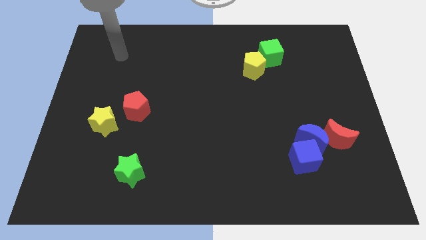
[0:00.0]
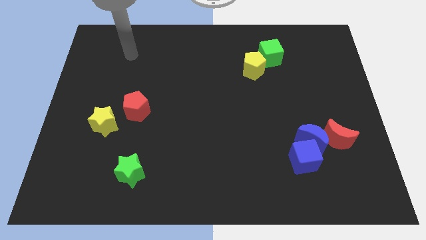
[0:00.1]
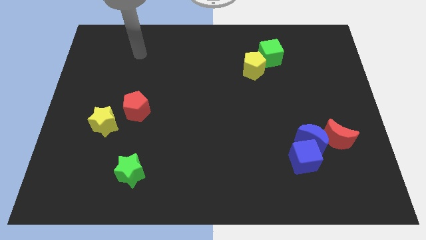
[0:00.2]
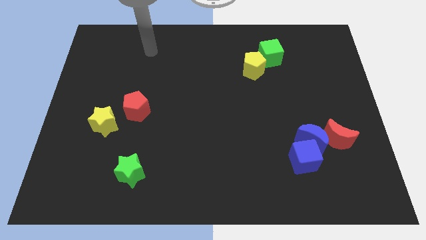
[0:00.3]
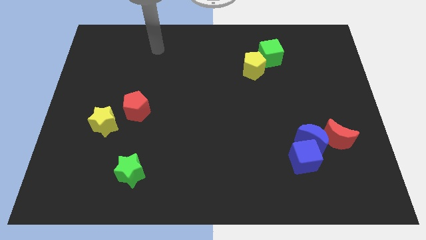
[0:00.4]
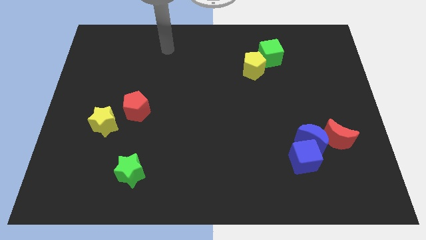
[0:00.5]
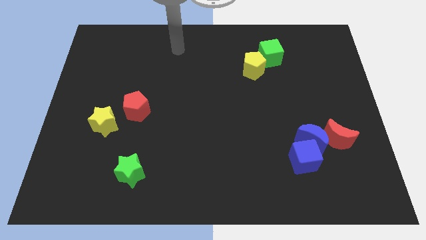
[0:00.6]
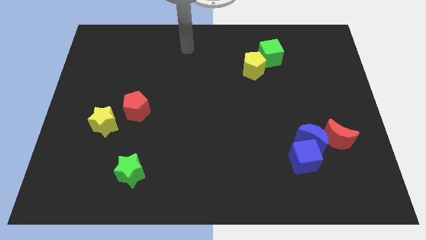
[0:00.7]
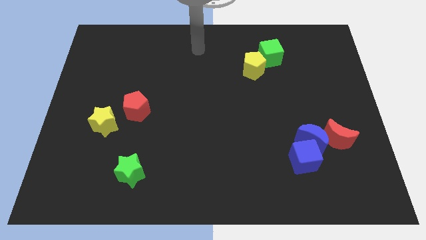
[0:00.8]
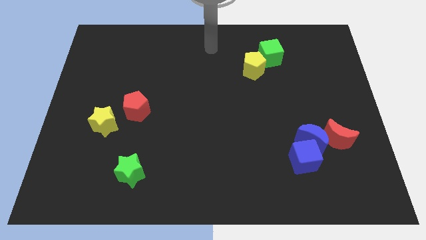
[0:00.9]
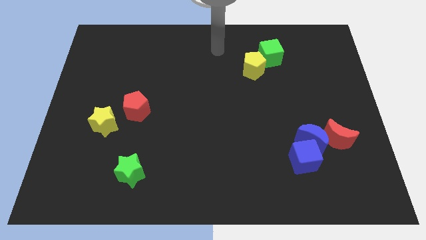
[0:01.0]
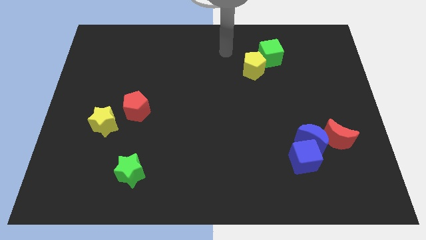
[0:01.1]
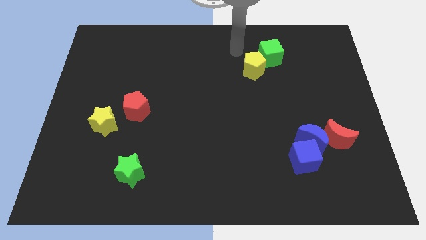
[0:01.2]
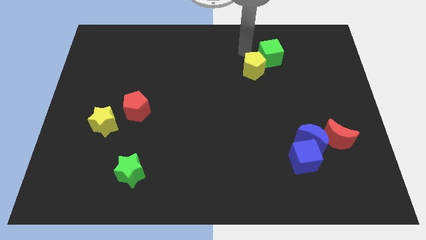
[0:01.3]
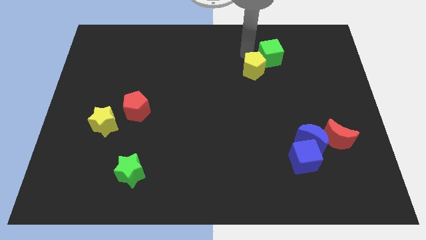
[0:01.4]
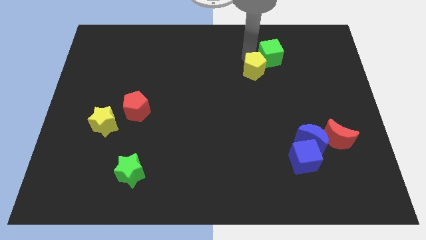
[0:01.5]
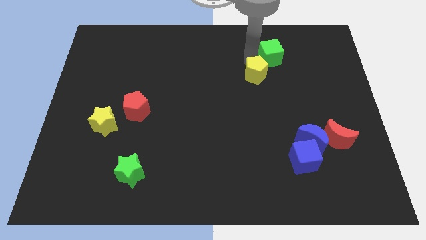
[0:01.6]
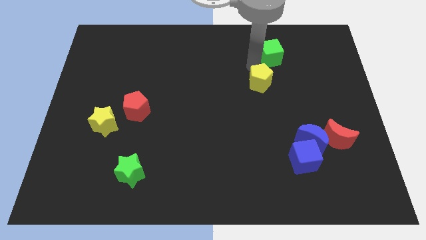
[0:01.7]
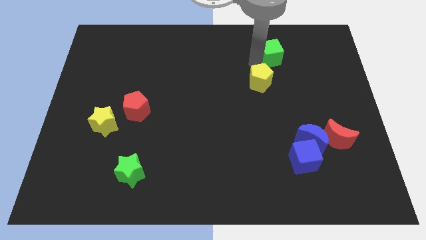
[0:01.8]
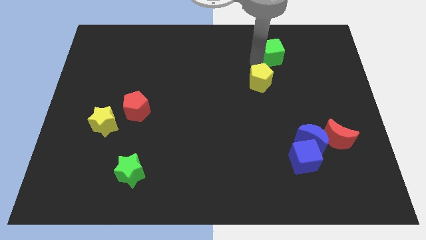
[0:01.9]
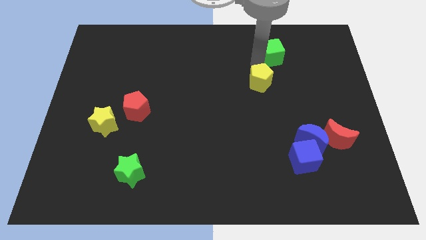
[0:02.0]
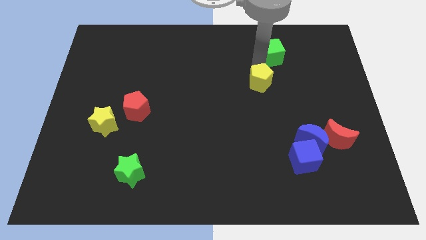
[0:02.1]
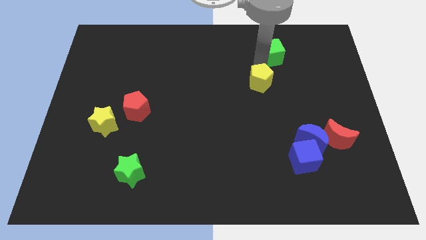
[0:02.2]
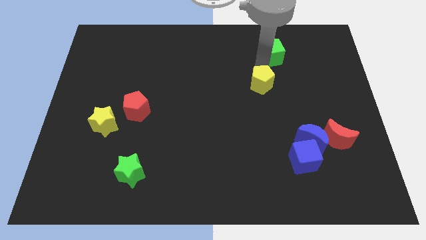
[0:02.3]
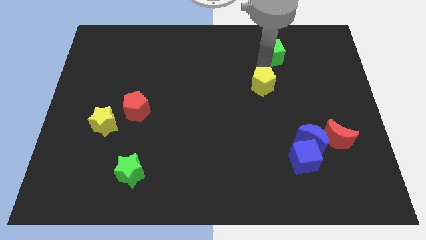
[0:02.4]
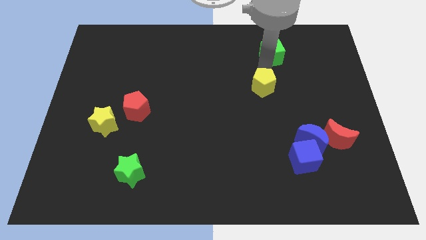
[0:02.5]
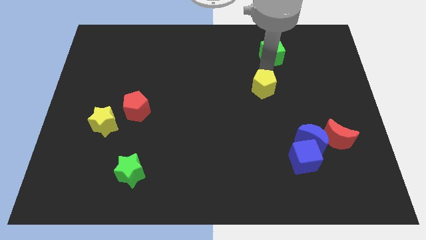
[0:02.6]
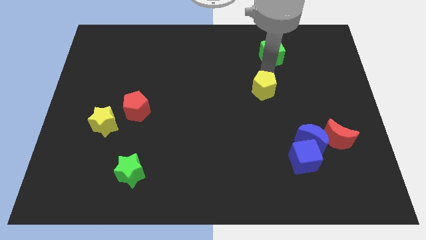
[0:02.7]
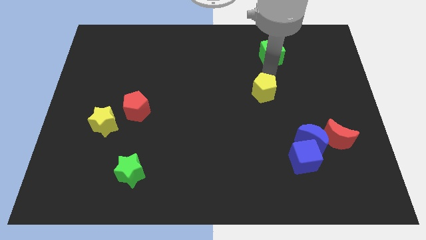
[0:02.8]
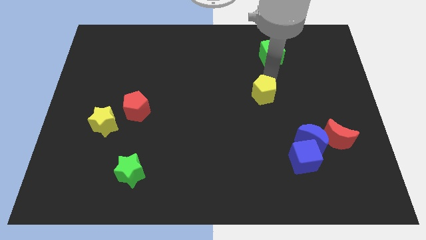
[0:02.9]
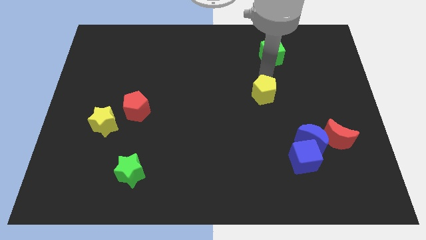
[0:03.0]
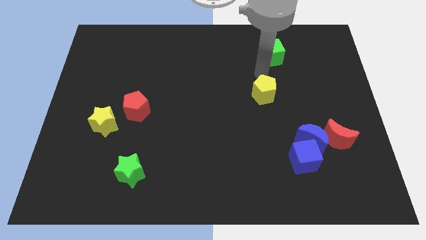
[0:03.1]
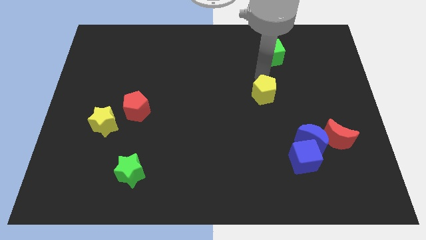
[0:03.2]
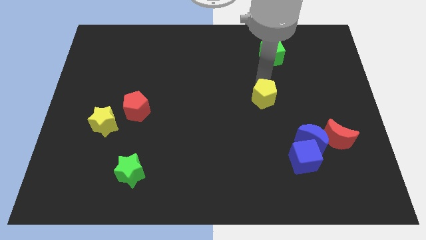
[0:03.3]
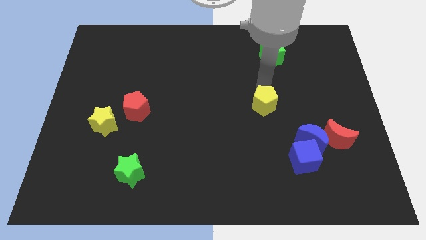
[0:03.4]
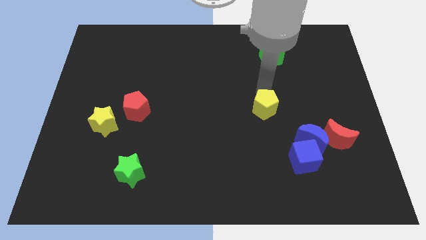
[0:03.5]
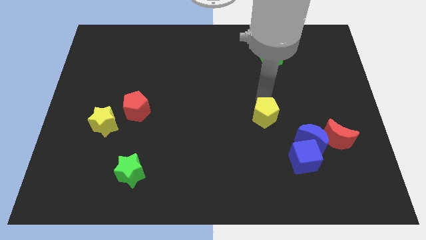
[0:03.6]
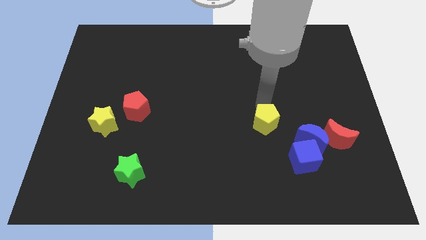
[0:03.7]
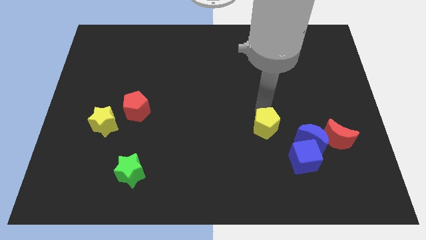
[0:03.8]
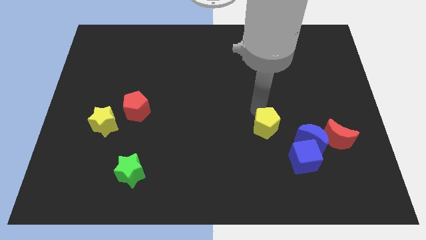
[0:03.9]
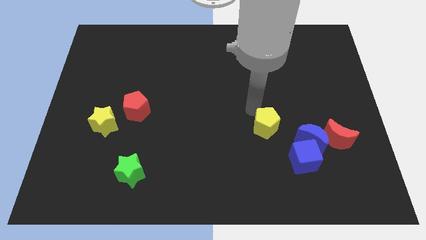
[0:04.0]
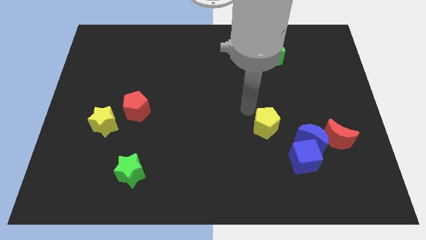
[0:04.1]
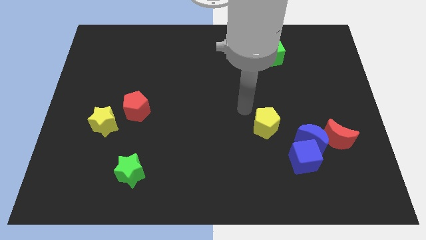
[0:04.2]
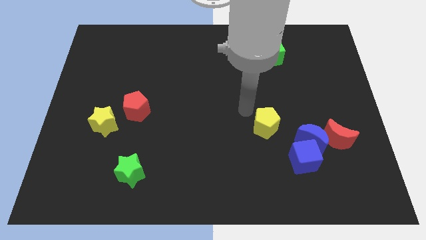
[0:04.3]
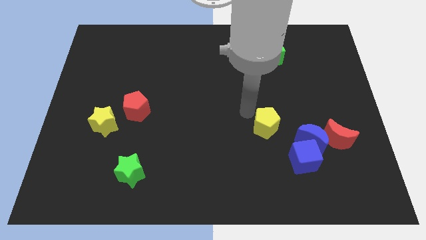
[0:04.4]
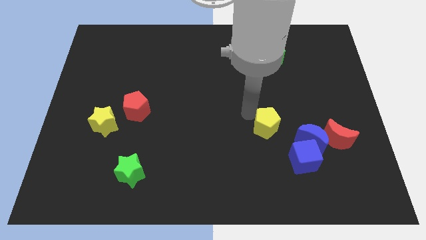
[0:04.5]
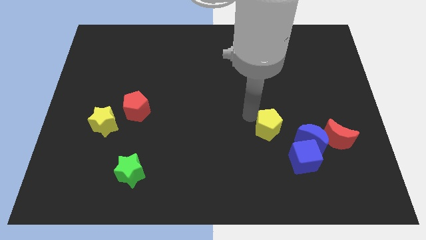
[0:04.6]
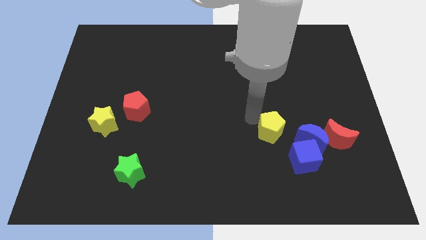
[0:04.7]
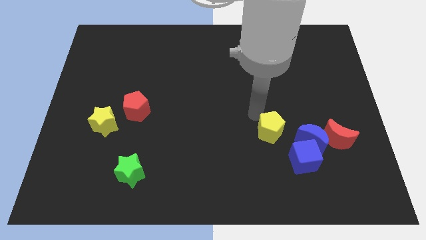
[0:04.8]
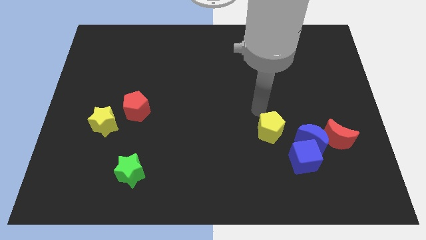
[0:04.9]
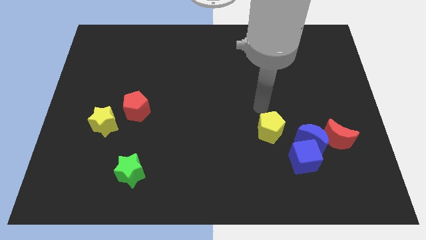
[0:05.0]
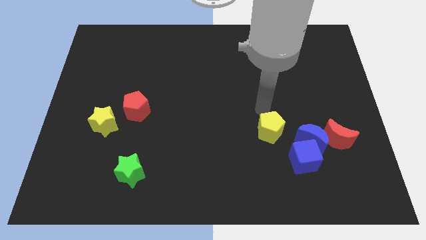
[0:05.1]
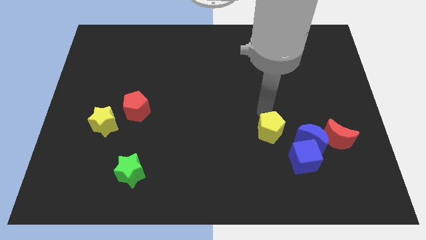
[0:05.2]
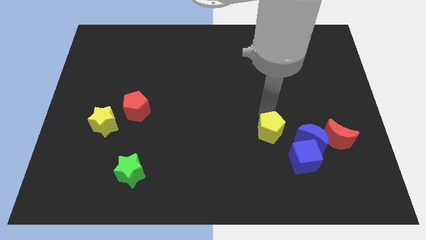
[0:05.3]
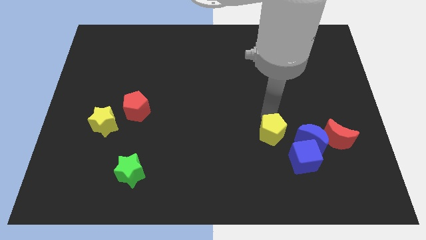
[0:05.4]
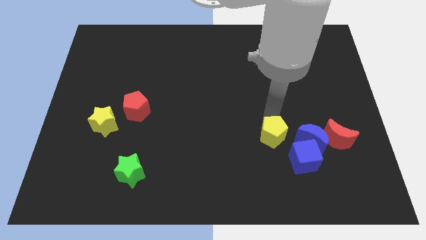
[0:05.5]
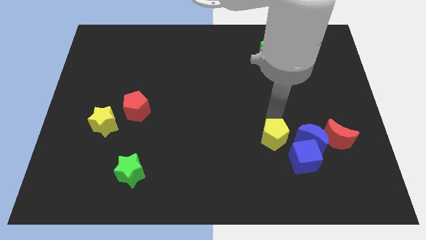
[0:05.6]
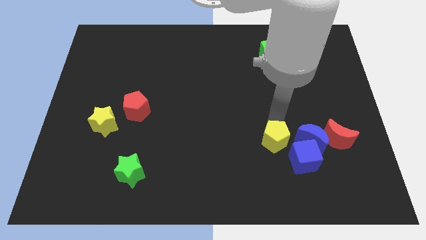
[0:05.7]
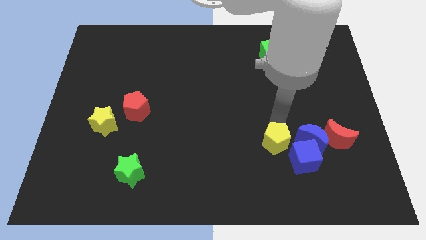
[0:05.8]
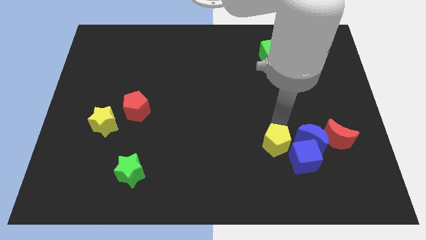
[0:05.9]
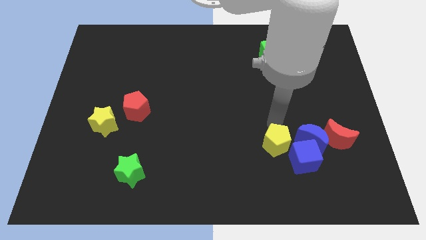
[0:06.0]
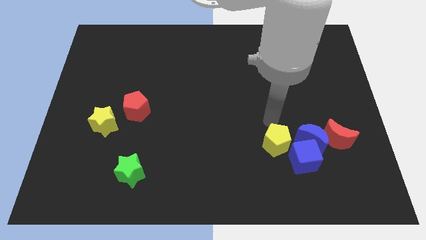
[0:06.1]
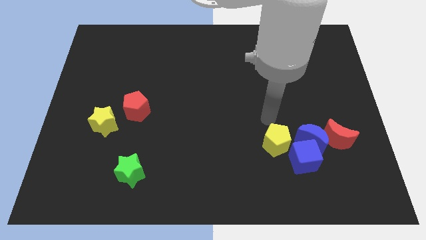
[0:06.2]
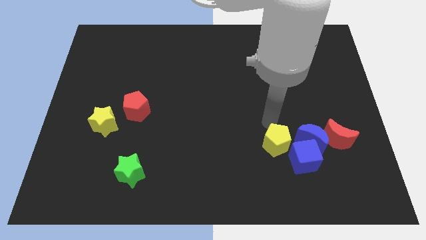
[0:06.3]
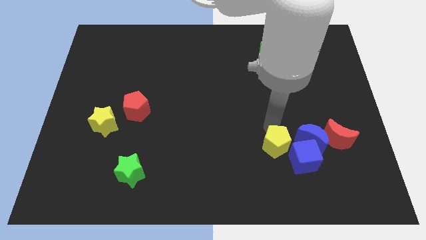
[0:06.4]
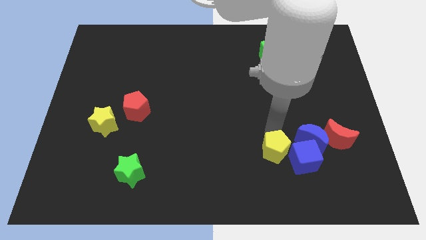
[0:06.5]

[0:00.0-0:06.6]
move the yellow pentagon next to the blue cube

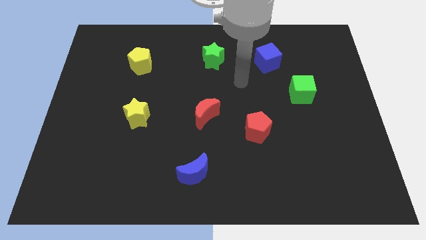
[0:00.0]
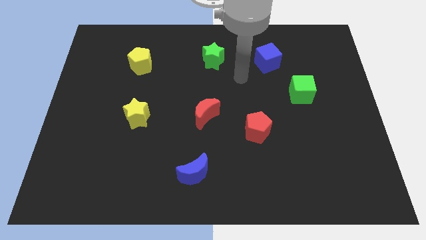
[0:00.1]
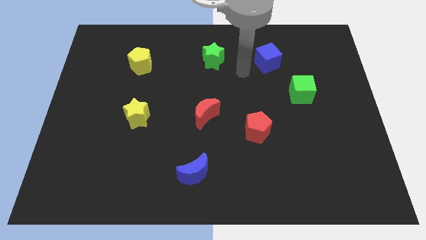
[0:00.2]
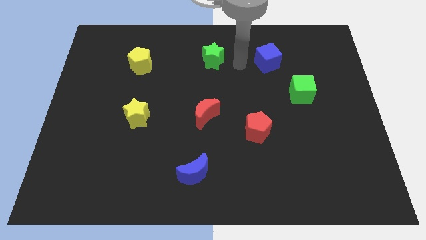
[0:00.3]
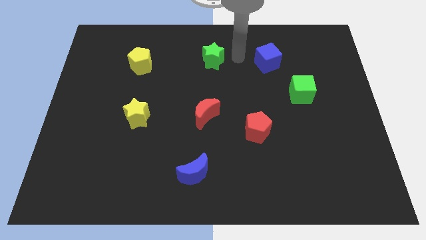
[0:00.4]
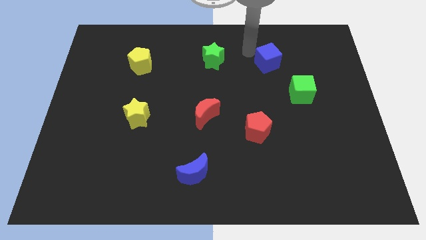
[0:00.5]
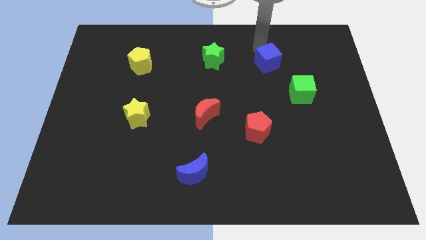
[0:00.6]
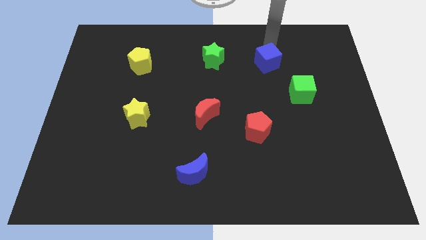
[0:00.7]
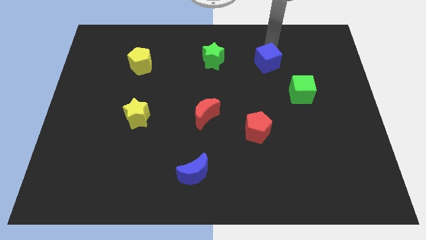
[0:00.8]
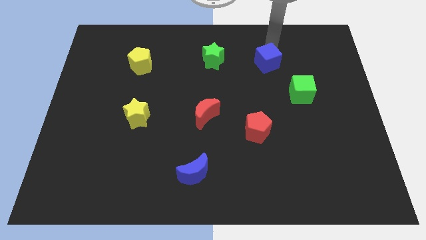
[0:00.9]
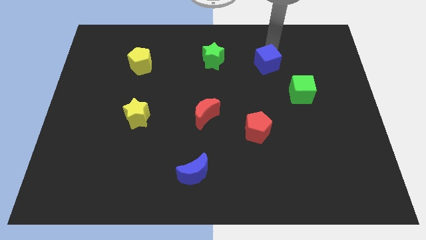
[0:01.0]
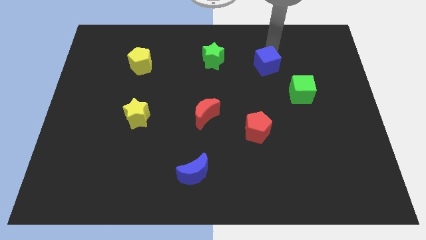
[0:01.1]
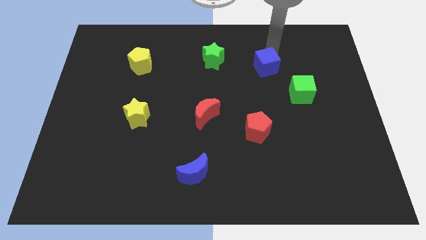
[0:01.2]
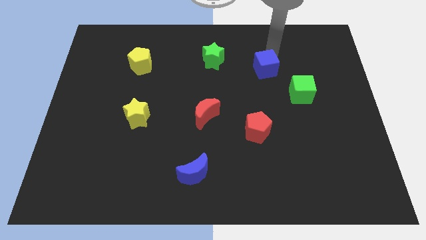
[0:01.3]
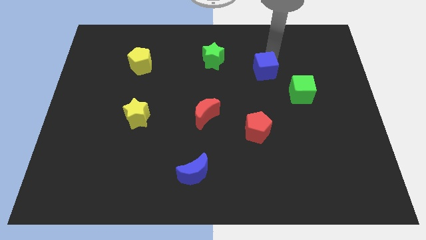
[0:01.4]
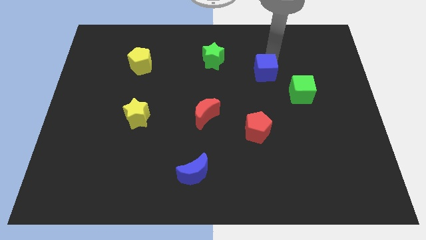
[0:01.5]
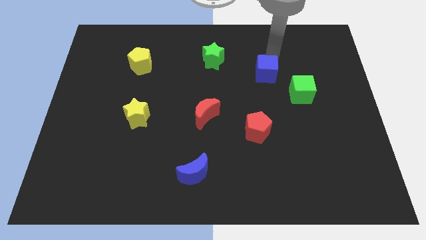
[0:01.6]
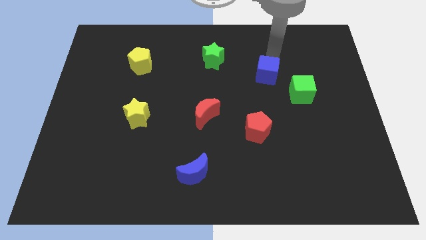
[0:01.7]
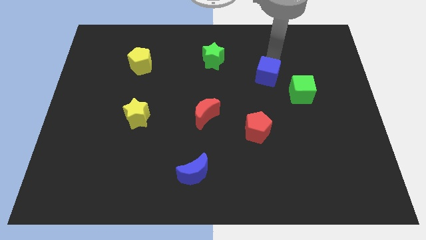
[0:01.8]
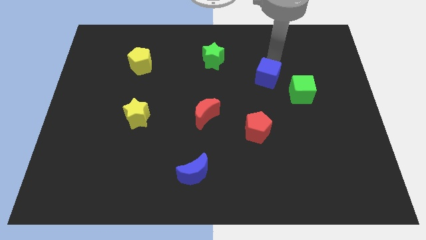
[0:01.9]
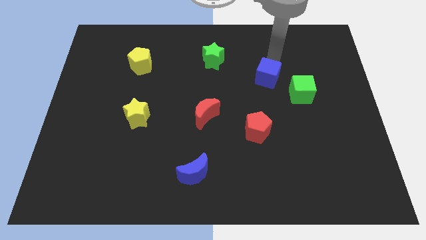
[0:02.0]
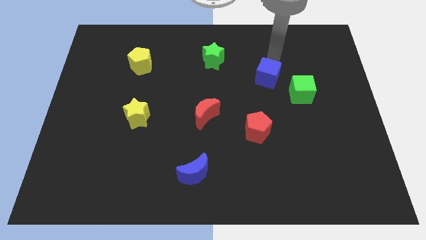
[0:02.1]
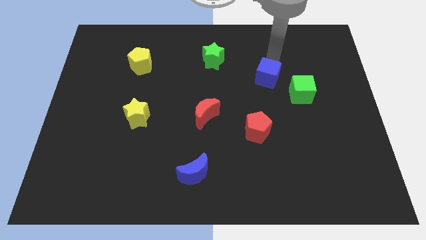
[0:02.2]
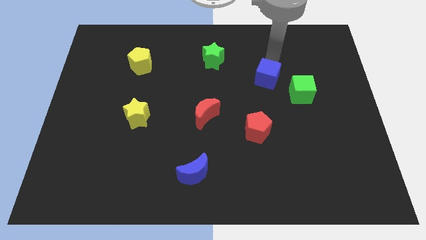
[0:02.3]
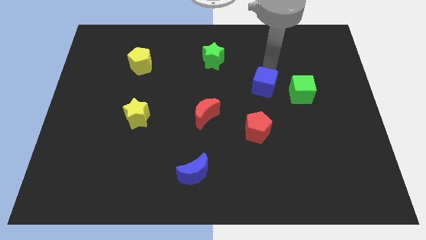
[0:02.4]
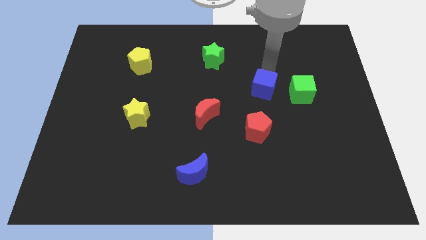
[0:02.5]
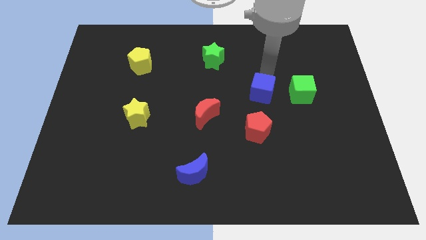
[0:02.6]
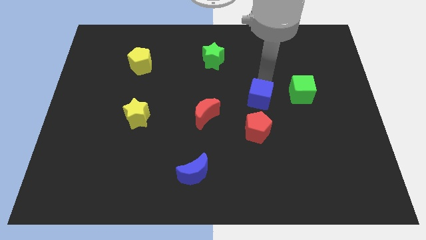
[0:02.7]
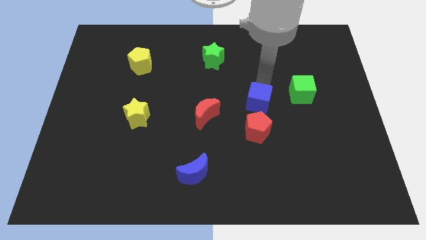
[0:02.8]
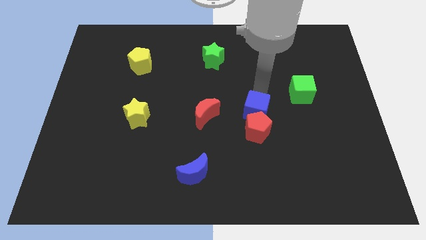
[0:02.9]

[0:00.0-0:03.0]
put the blue cube next to the red pentagon
